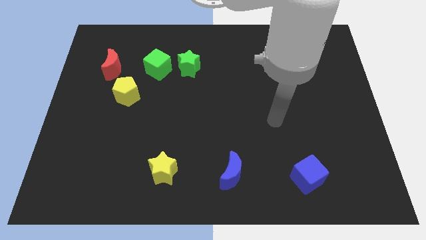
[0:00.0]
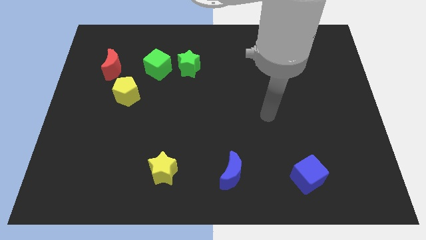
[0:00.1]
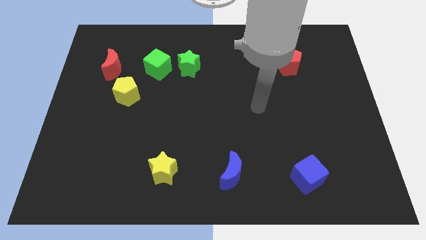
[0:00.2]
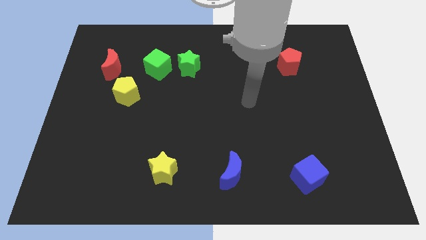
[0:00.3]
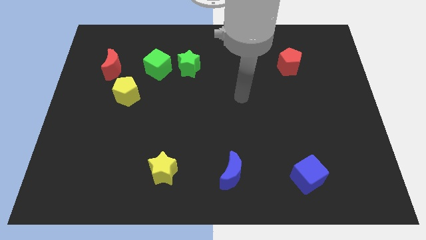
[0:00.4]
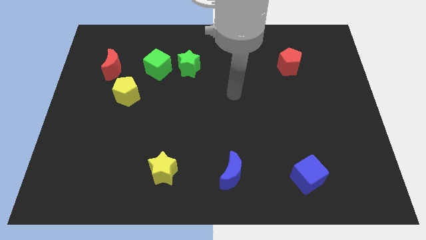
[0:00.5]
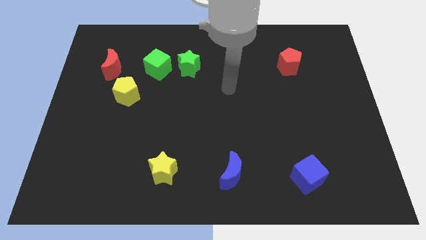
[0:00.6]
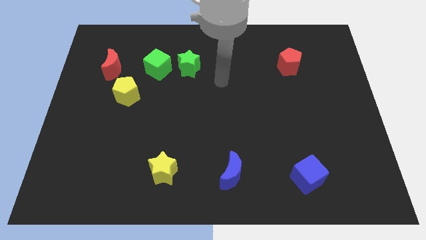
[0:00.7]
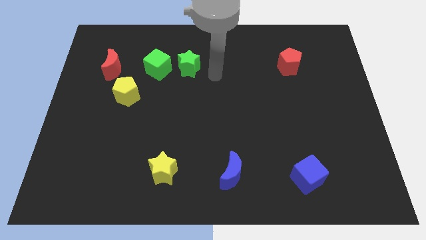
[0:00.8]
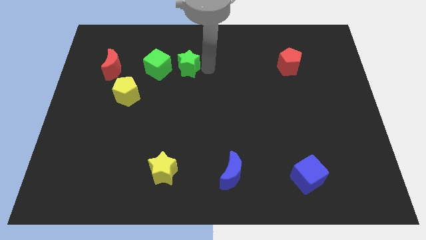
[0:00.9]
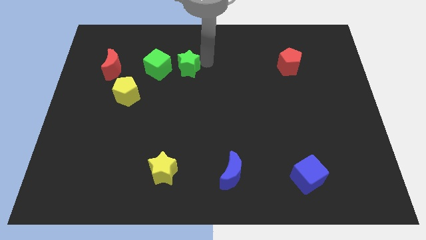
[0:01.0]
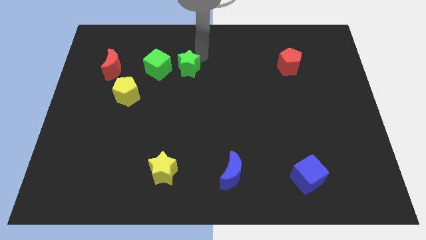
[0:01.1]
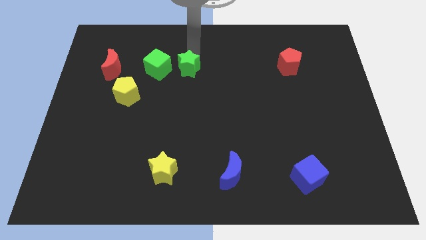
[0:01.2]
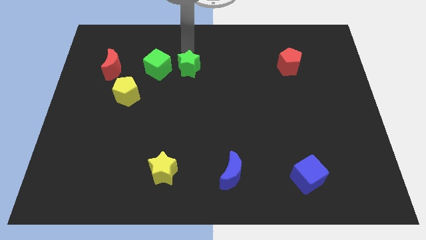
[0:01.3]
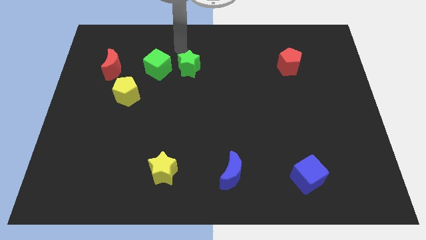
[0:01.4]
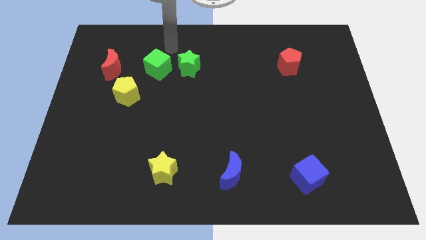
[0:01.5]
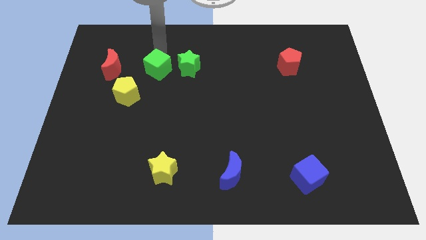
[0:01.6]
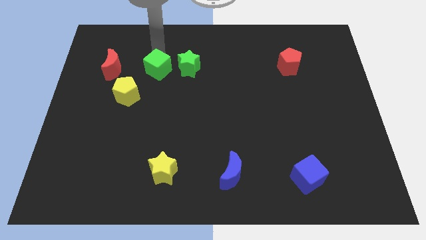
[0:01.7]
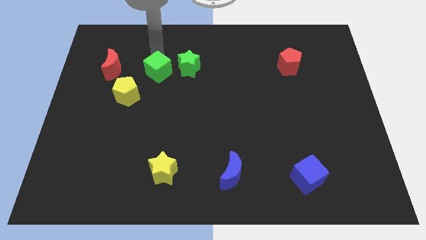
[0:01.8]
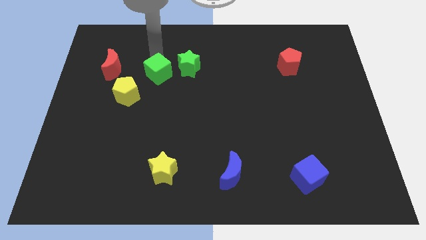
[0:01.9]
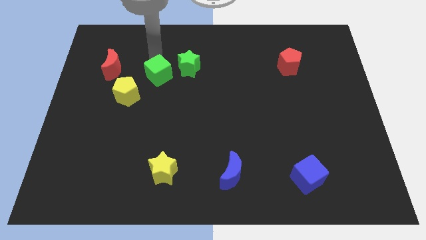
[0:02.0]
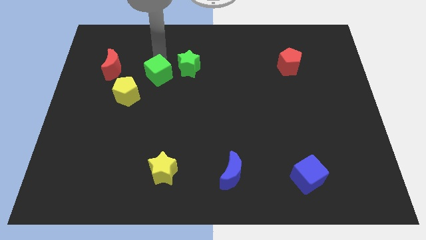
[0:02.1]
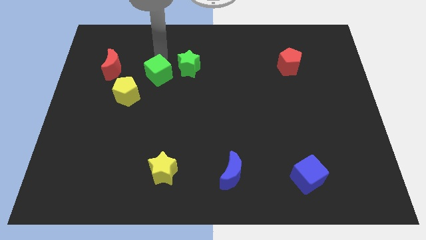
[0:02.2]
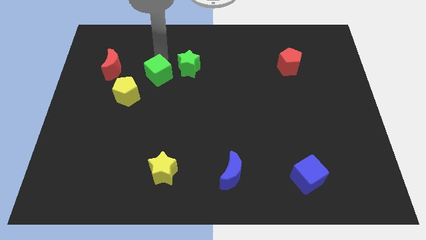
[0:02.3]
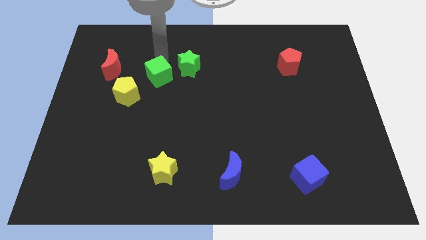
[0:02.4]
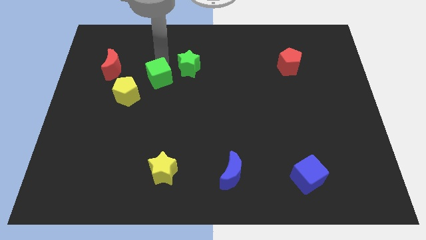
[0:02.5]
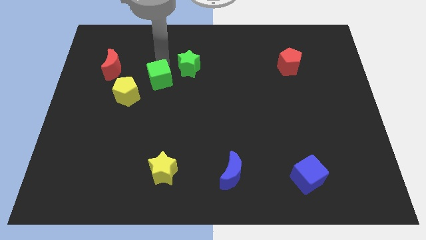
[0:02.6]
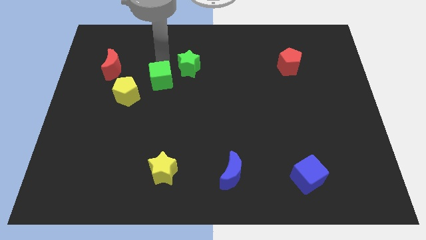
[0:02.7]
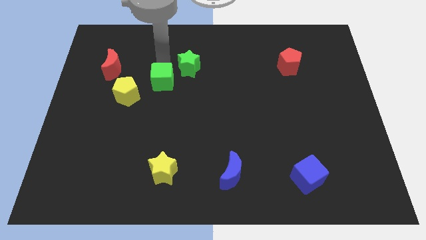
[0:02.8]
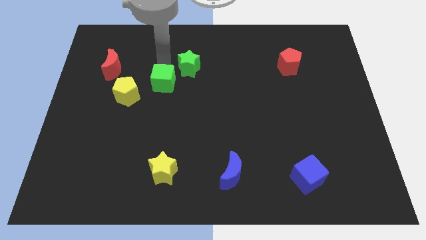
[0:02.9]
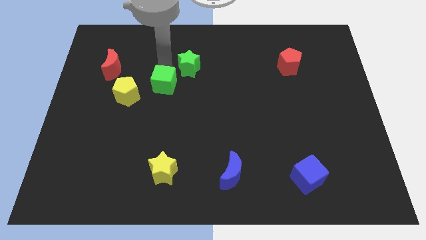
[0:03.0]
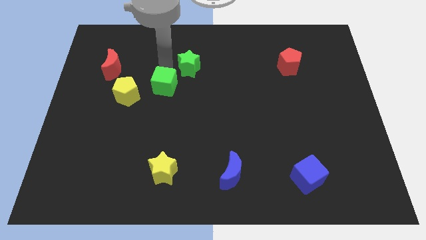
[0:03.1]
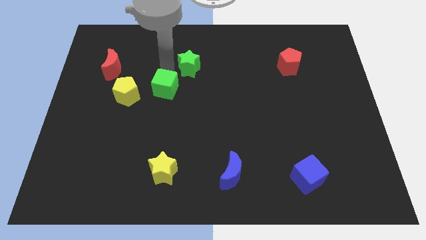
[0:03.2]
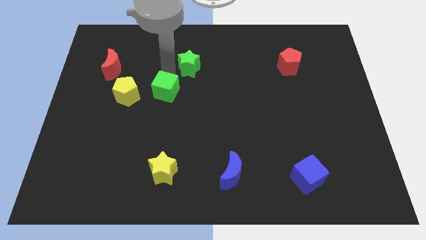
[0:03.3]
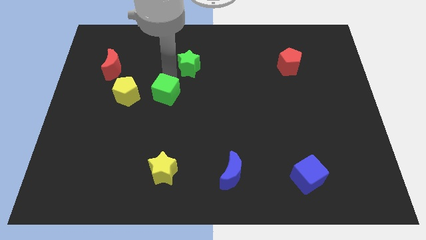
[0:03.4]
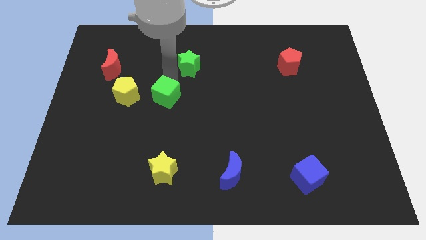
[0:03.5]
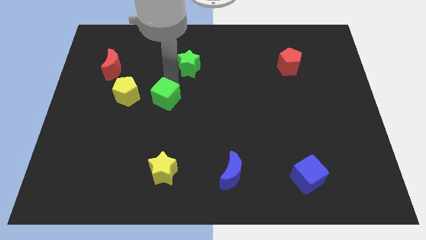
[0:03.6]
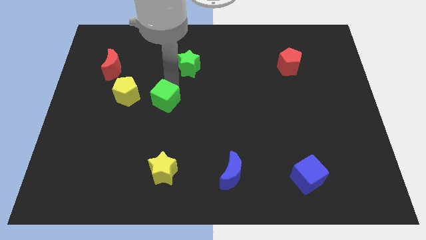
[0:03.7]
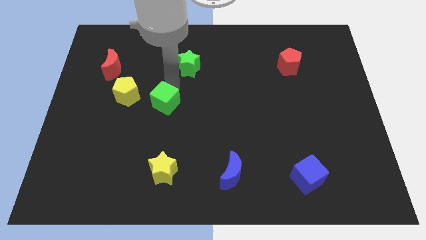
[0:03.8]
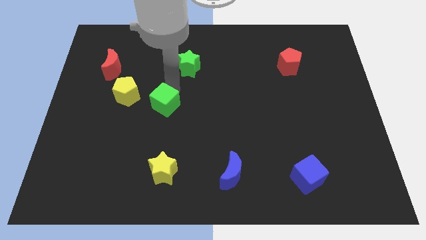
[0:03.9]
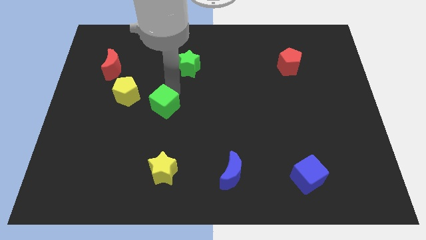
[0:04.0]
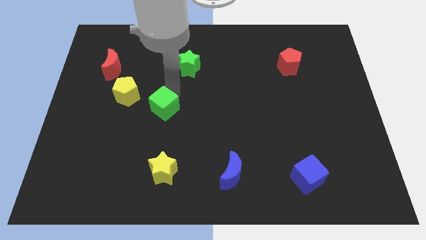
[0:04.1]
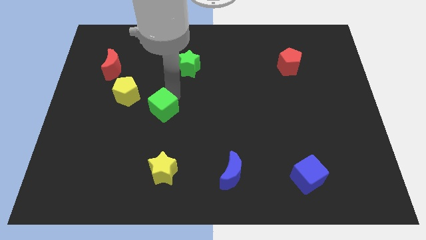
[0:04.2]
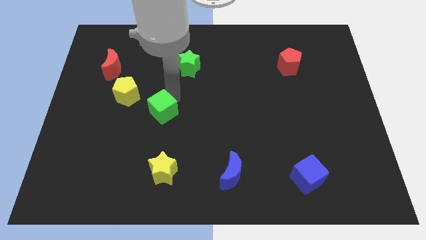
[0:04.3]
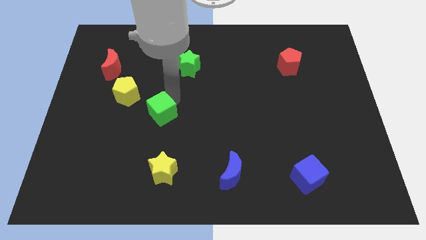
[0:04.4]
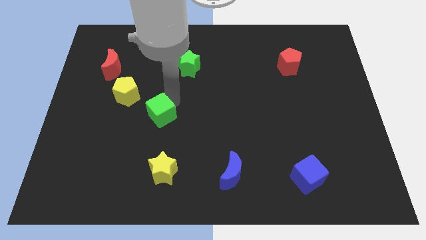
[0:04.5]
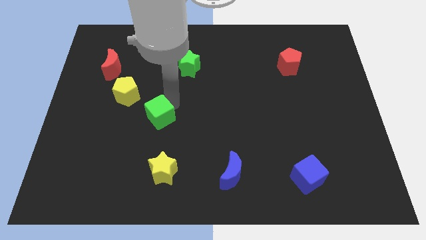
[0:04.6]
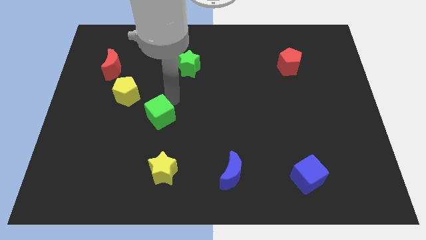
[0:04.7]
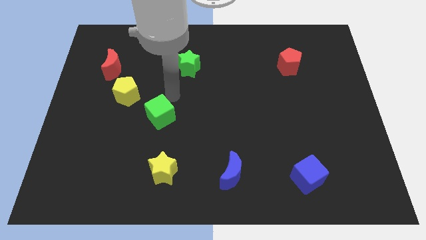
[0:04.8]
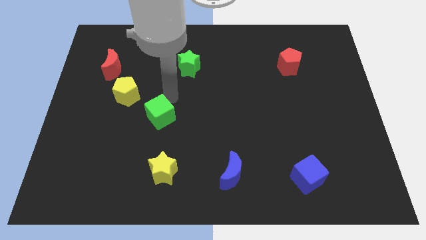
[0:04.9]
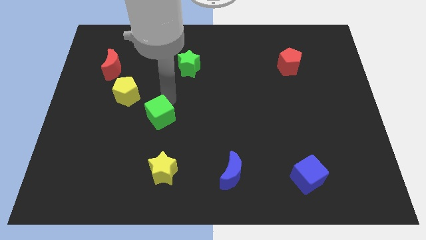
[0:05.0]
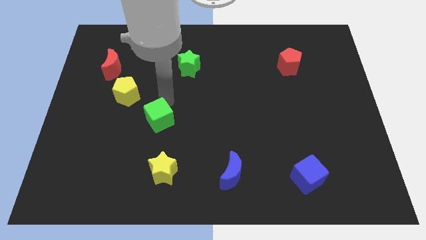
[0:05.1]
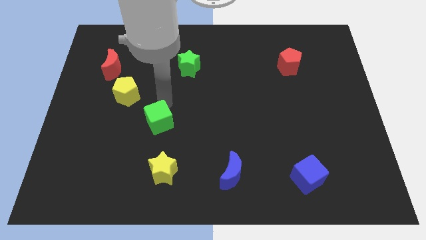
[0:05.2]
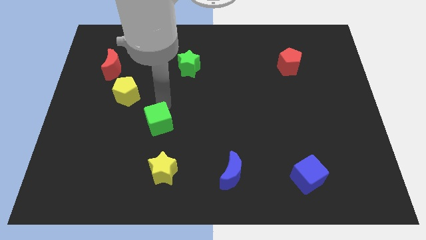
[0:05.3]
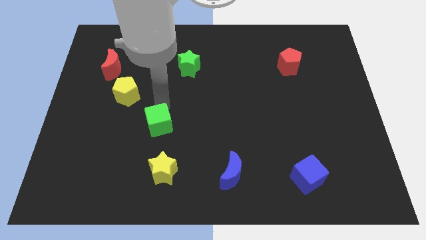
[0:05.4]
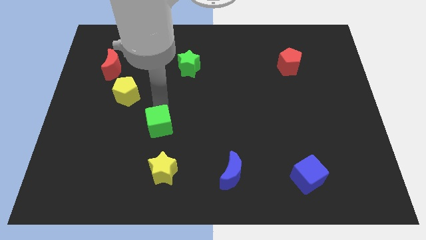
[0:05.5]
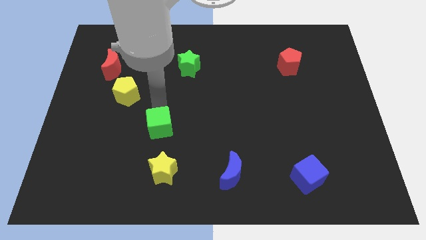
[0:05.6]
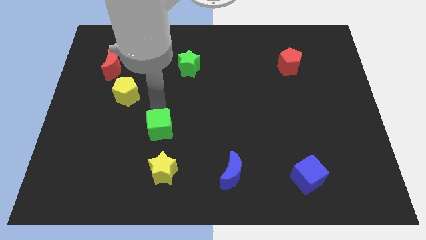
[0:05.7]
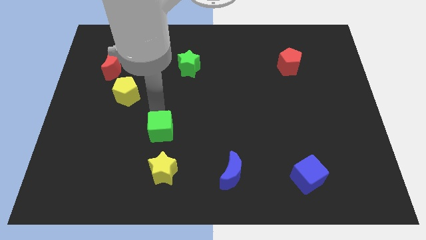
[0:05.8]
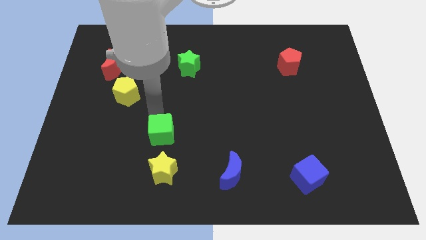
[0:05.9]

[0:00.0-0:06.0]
slide the green cube down

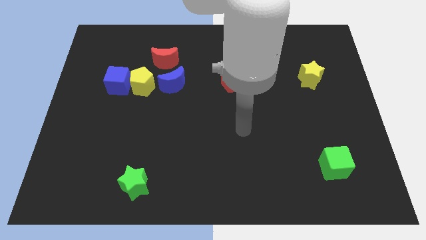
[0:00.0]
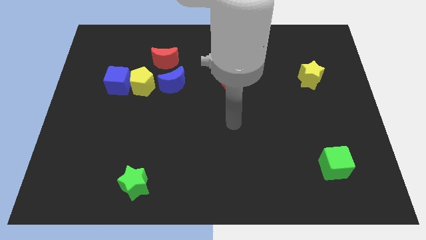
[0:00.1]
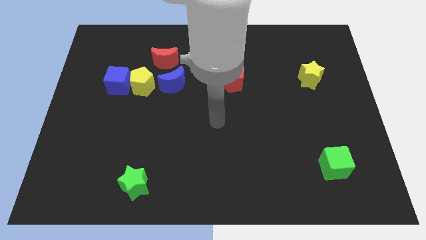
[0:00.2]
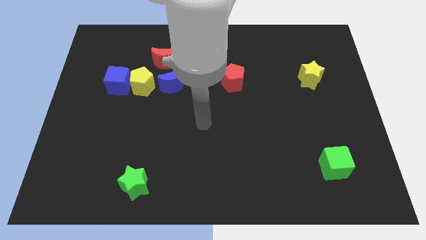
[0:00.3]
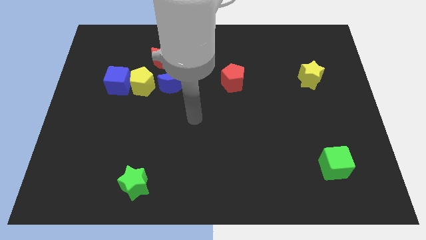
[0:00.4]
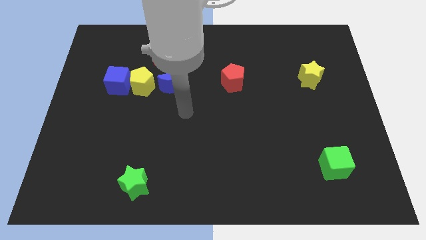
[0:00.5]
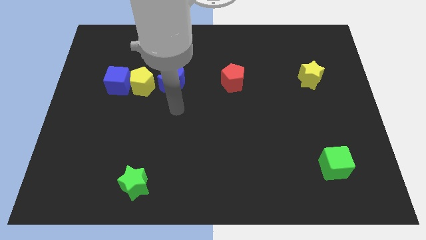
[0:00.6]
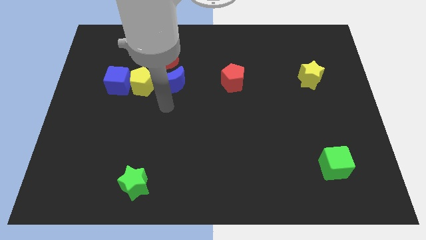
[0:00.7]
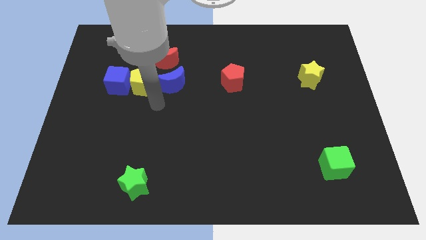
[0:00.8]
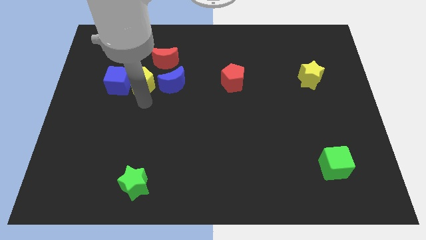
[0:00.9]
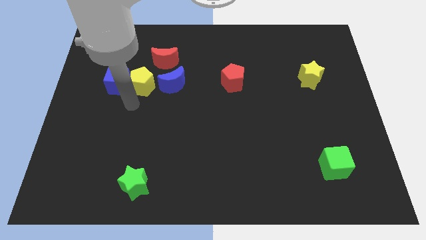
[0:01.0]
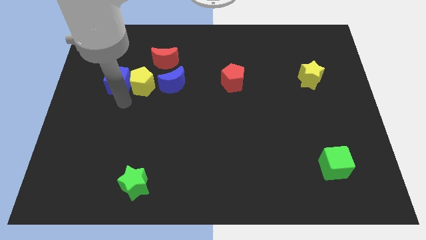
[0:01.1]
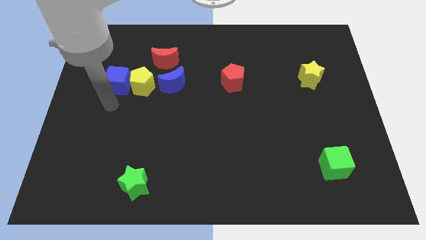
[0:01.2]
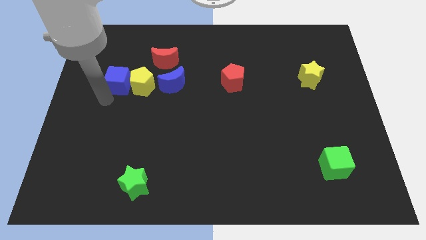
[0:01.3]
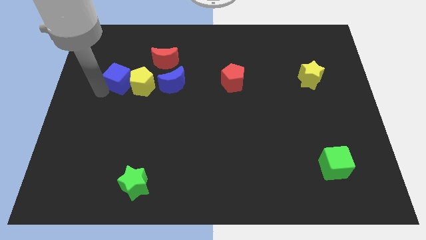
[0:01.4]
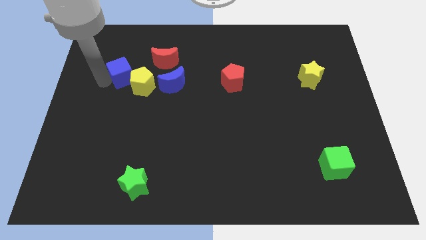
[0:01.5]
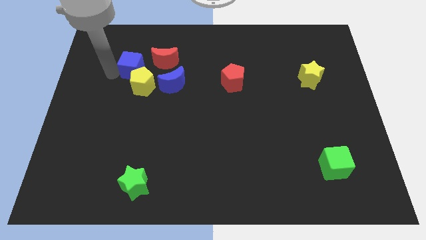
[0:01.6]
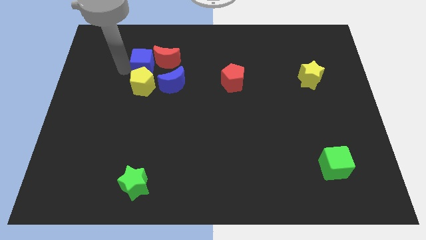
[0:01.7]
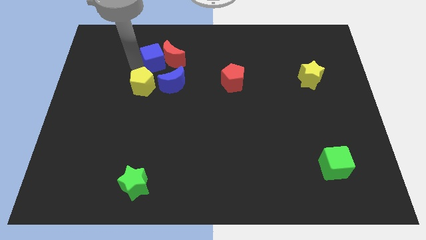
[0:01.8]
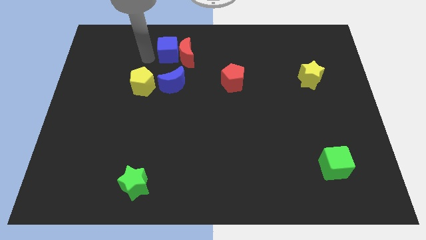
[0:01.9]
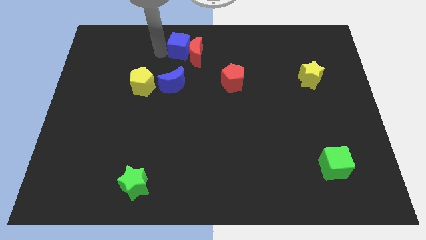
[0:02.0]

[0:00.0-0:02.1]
slightly move the red moon to the right

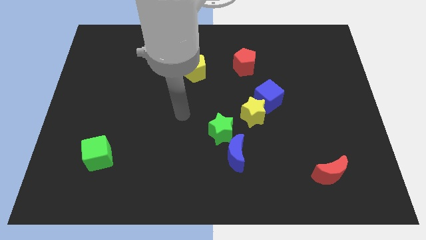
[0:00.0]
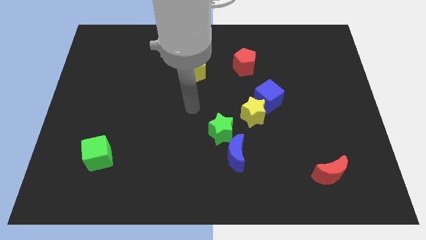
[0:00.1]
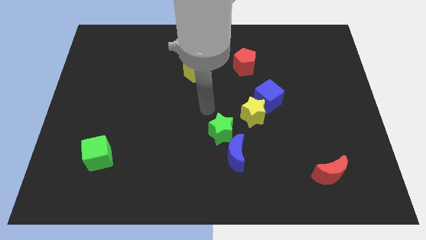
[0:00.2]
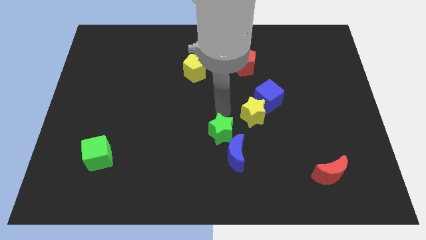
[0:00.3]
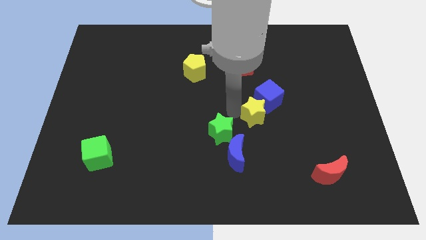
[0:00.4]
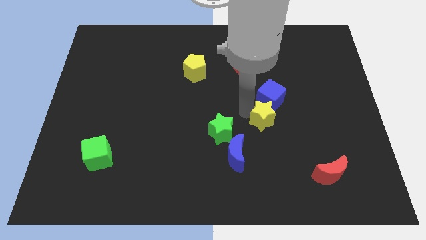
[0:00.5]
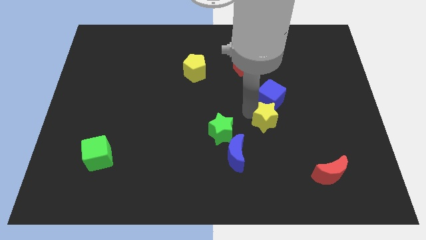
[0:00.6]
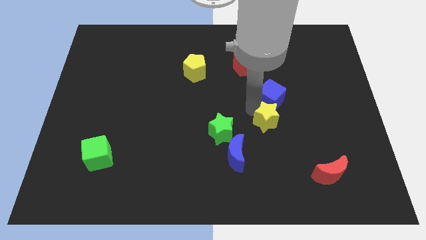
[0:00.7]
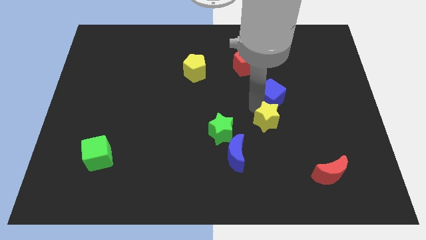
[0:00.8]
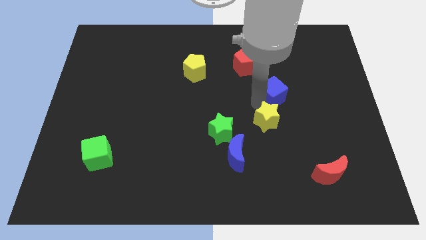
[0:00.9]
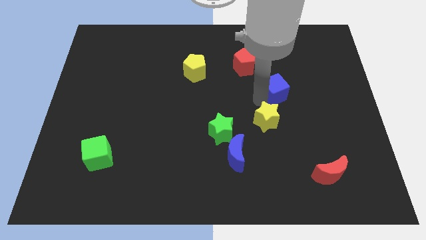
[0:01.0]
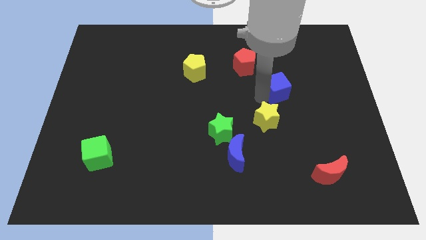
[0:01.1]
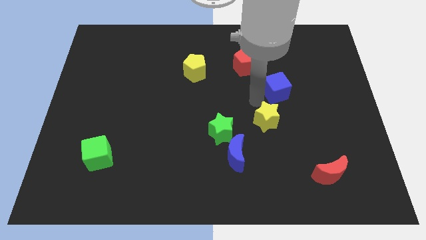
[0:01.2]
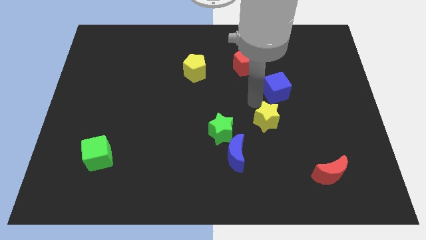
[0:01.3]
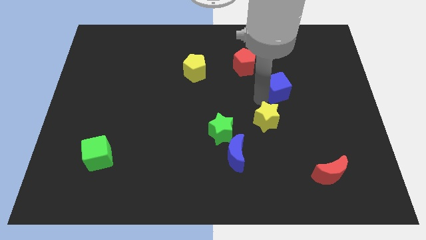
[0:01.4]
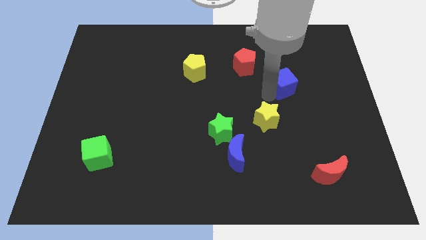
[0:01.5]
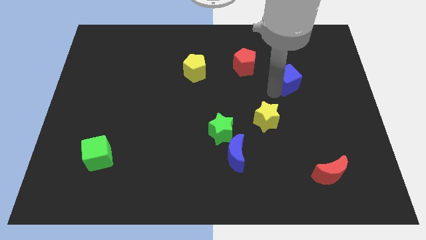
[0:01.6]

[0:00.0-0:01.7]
slightly move the blue cube up and to the right diagonally
